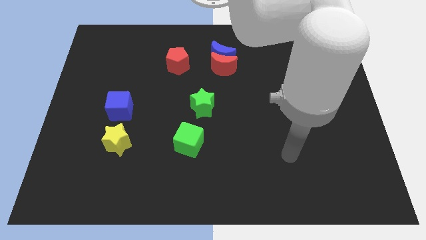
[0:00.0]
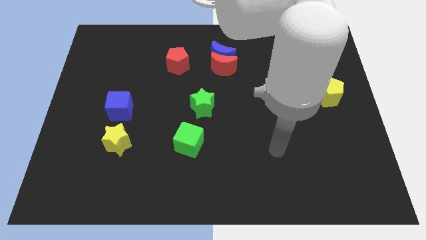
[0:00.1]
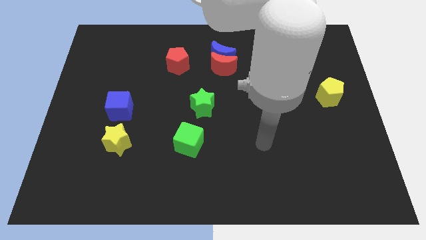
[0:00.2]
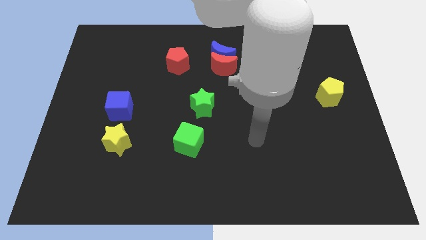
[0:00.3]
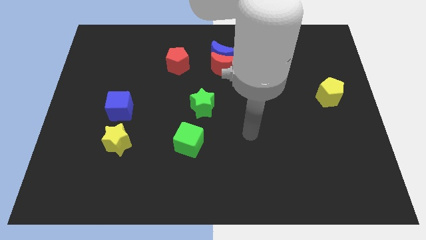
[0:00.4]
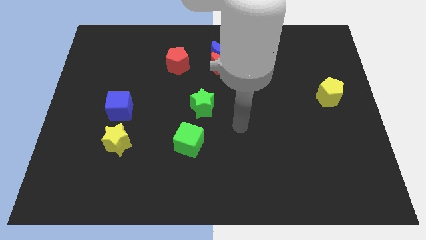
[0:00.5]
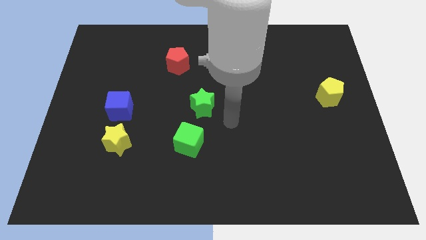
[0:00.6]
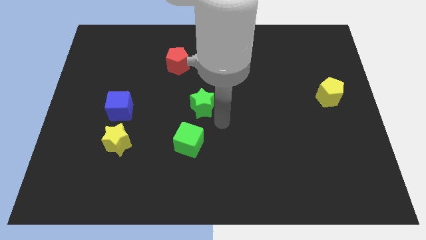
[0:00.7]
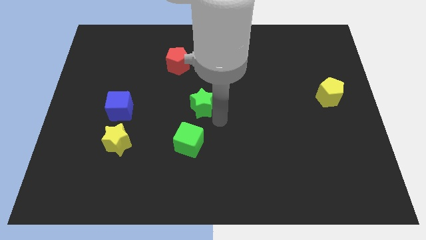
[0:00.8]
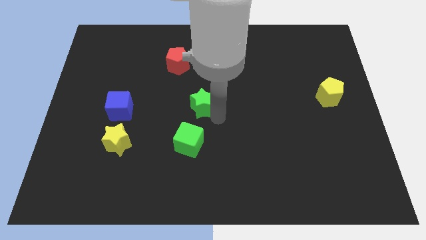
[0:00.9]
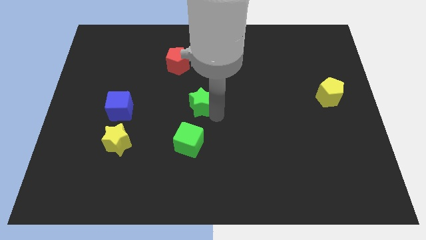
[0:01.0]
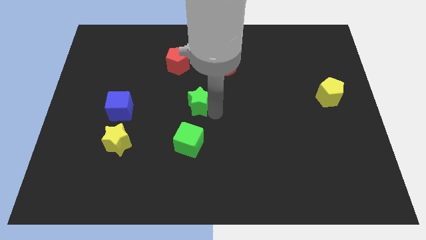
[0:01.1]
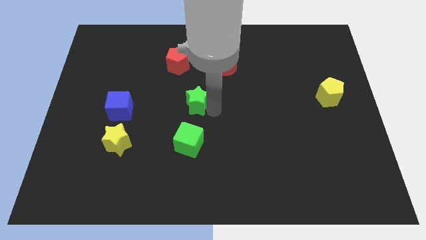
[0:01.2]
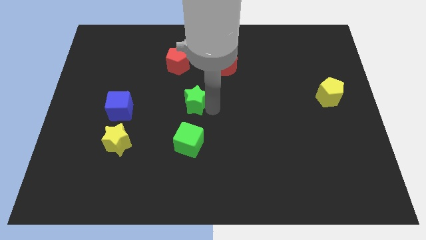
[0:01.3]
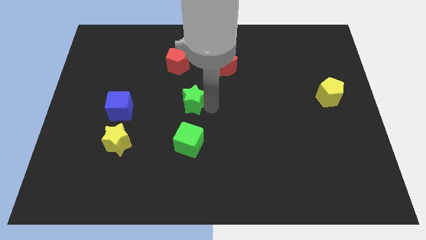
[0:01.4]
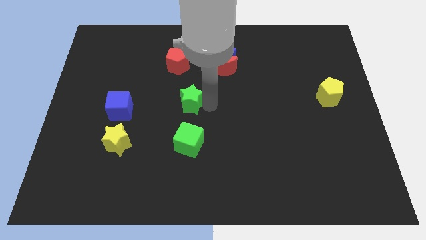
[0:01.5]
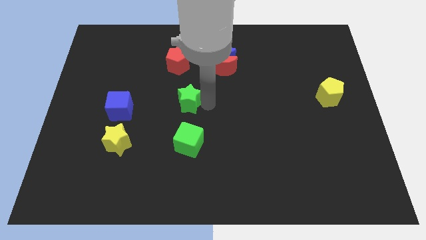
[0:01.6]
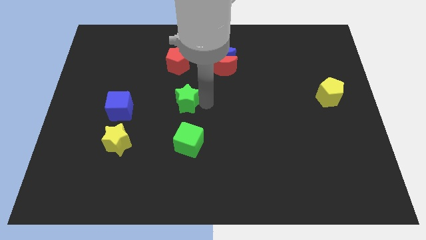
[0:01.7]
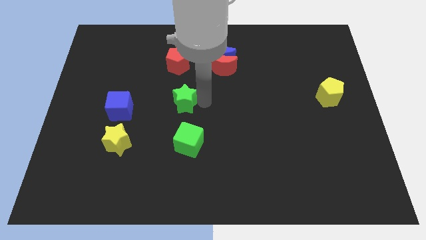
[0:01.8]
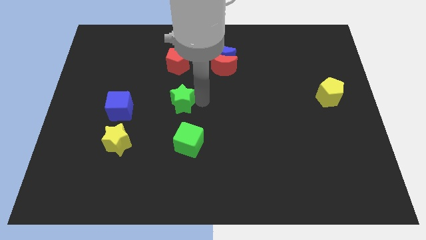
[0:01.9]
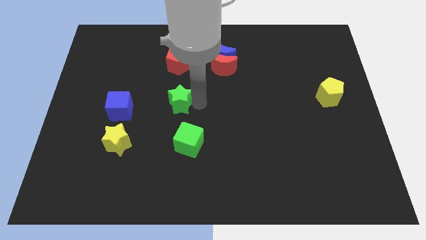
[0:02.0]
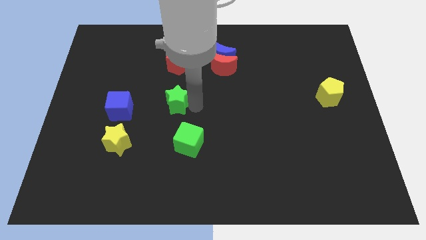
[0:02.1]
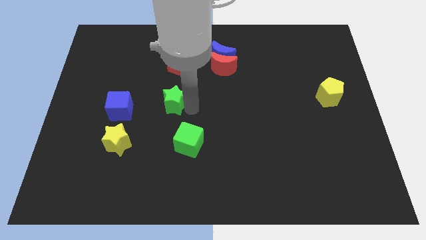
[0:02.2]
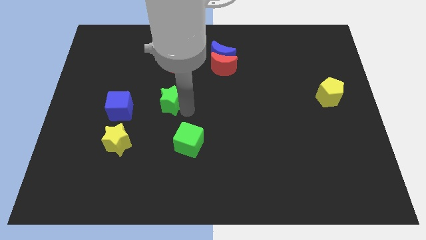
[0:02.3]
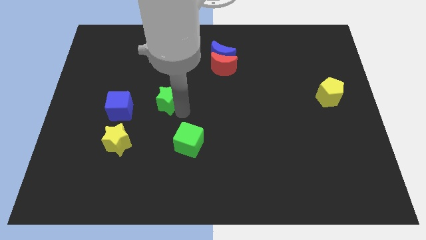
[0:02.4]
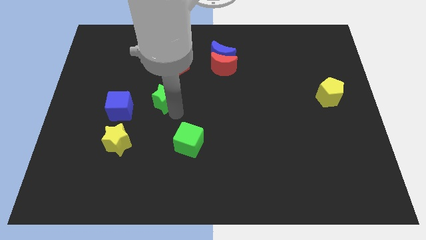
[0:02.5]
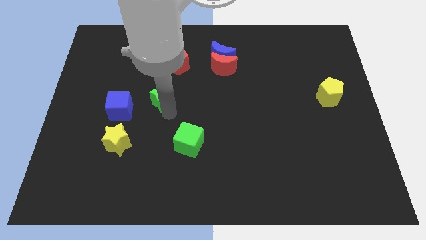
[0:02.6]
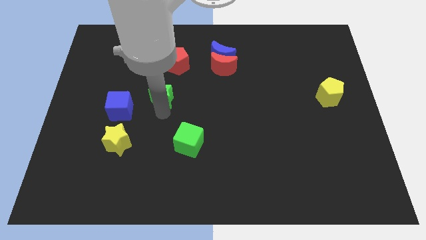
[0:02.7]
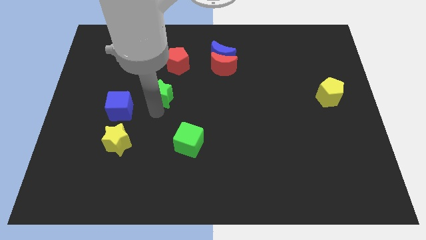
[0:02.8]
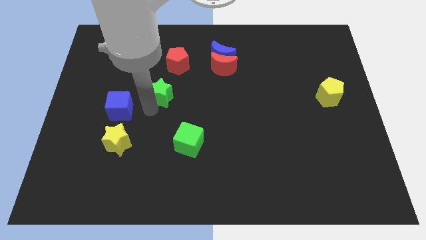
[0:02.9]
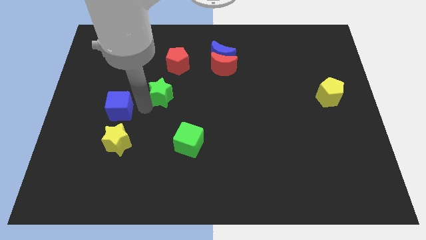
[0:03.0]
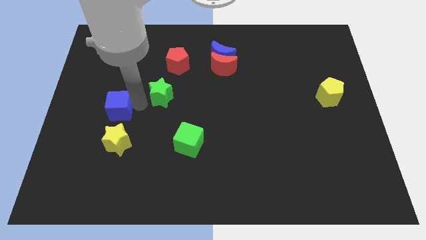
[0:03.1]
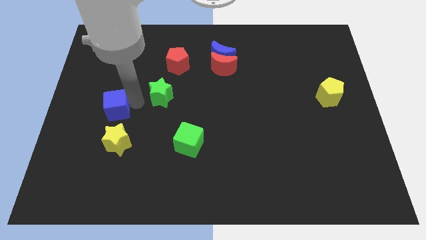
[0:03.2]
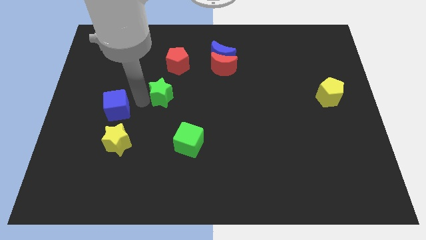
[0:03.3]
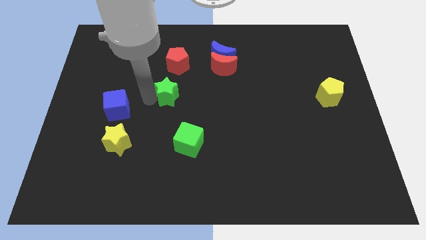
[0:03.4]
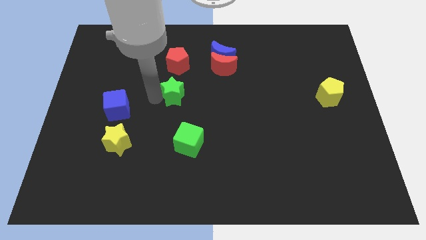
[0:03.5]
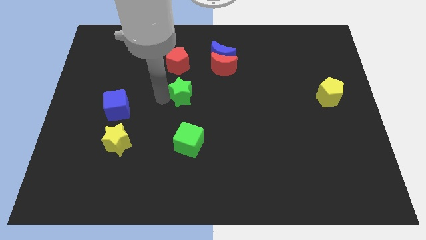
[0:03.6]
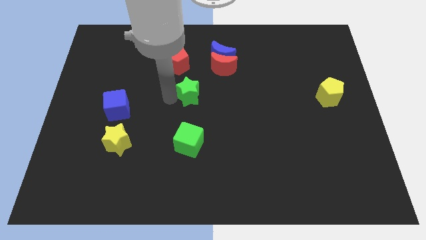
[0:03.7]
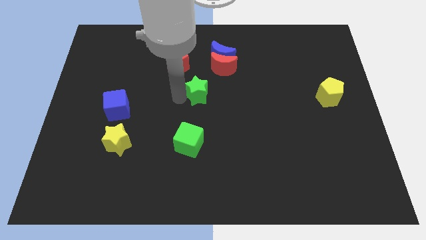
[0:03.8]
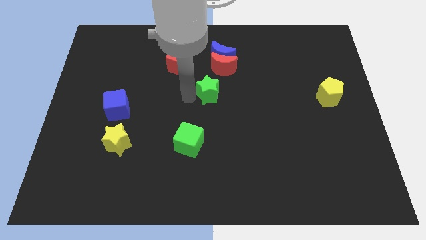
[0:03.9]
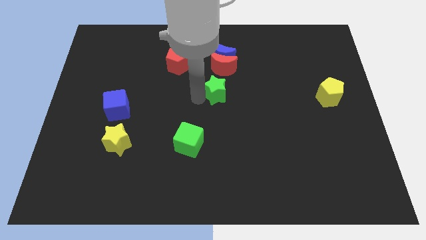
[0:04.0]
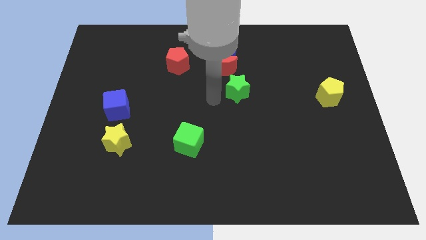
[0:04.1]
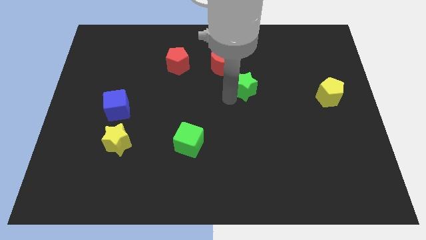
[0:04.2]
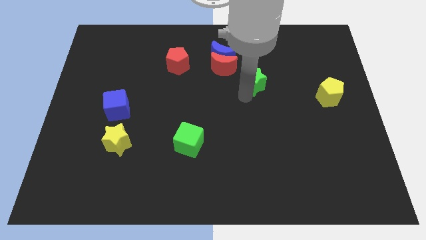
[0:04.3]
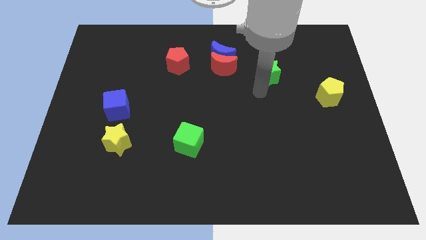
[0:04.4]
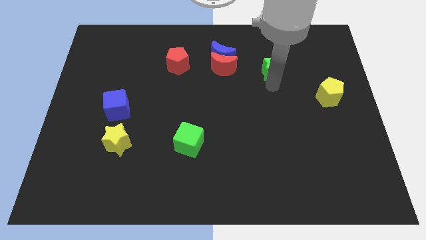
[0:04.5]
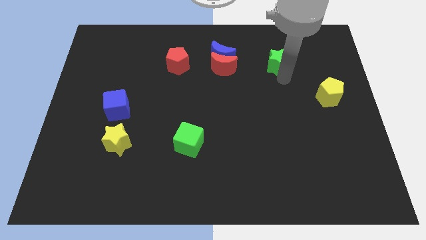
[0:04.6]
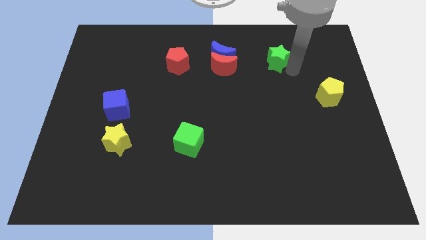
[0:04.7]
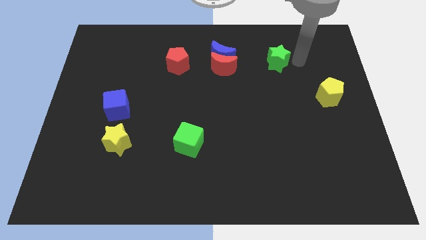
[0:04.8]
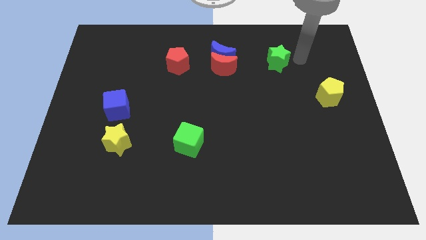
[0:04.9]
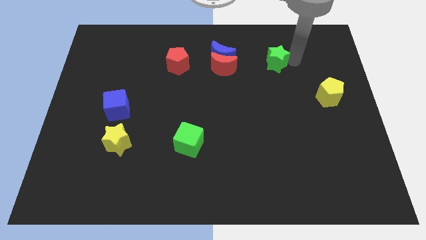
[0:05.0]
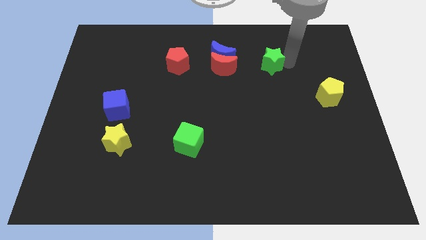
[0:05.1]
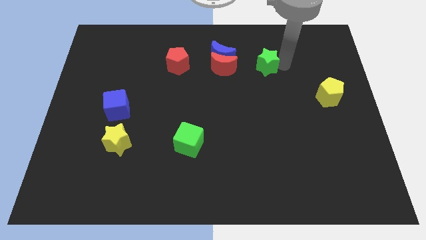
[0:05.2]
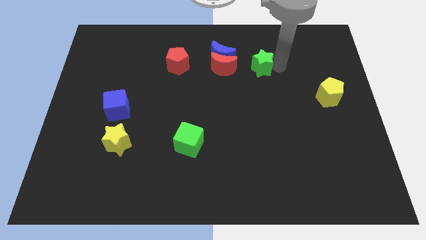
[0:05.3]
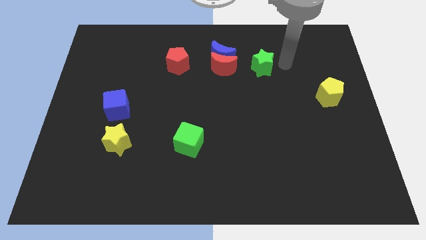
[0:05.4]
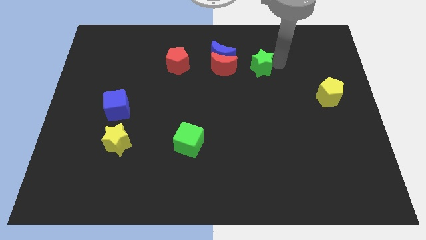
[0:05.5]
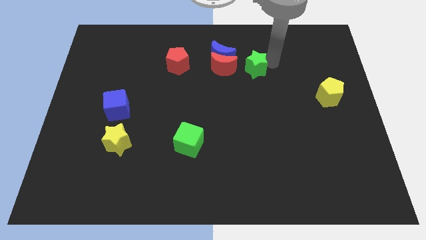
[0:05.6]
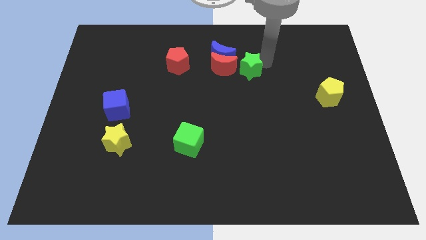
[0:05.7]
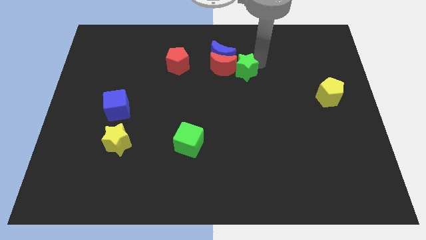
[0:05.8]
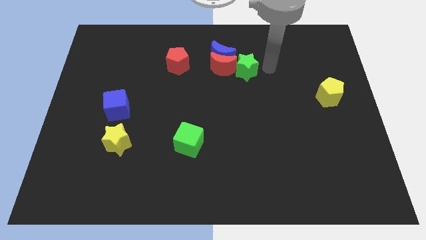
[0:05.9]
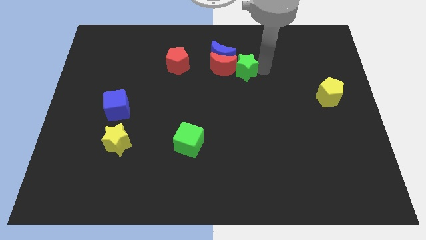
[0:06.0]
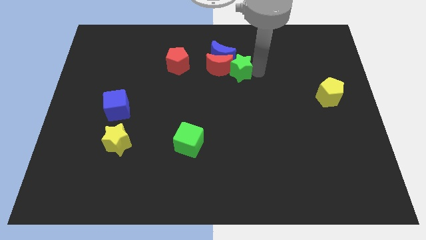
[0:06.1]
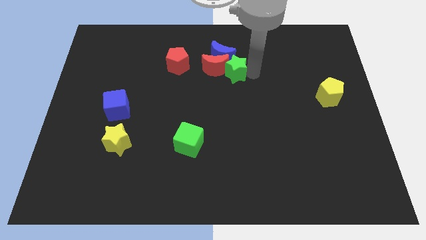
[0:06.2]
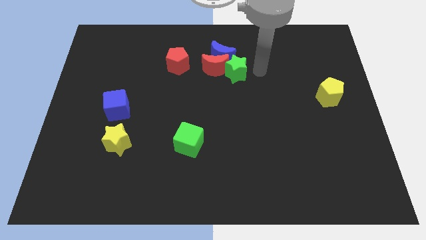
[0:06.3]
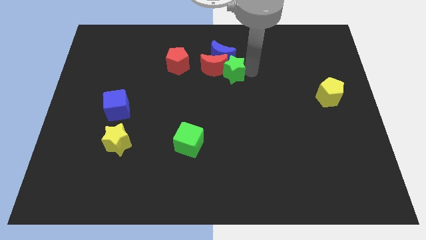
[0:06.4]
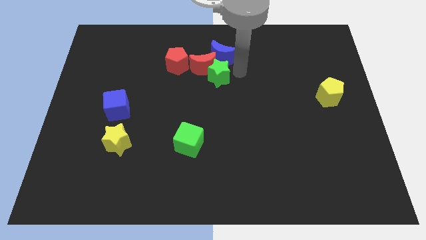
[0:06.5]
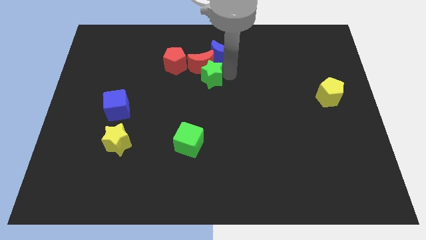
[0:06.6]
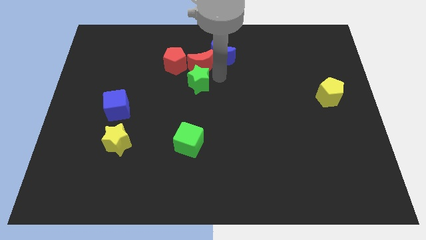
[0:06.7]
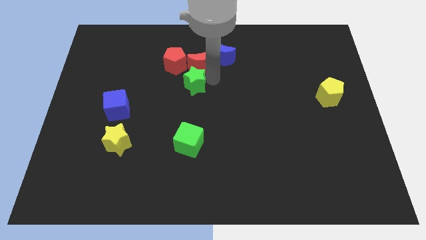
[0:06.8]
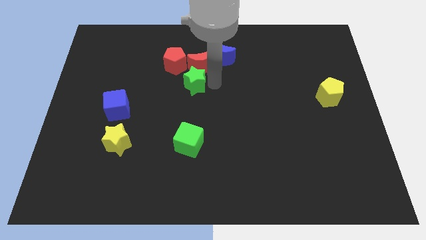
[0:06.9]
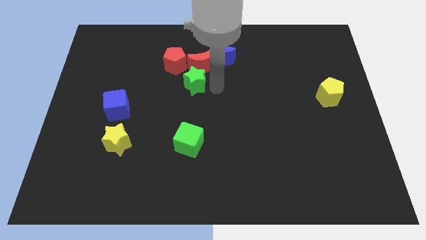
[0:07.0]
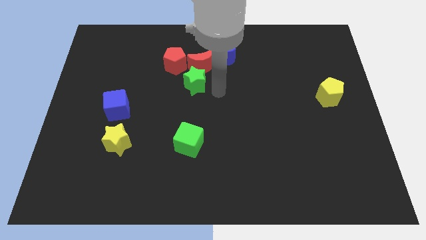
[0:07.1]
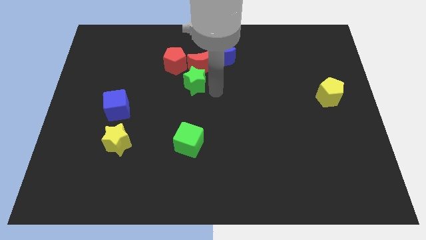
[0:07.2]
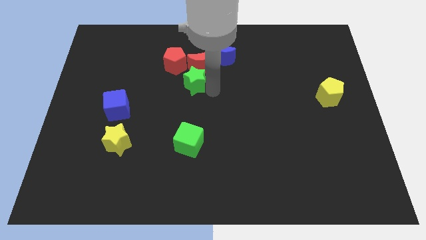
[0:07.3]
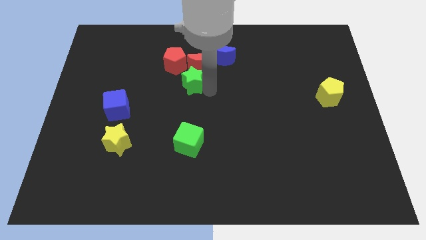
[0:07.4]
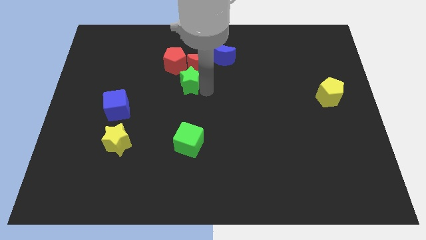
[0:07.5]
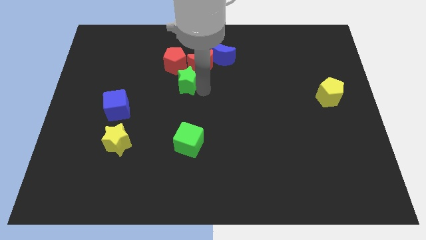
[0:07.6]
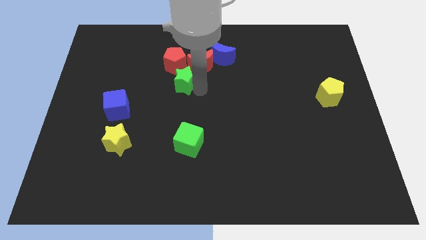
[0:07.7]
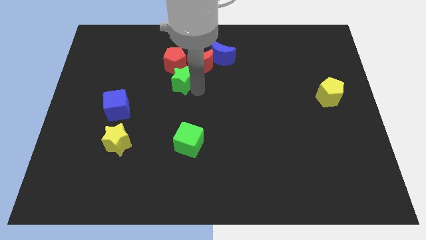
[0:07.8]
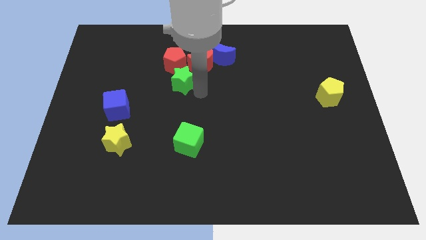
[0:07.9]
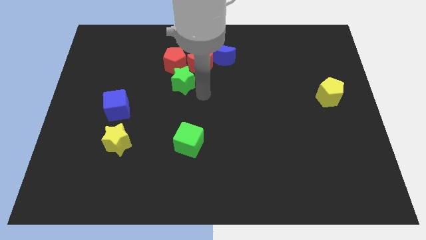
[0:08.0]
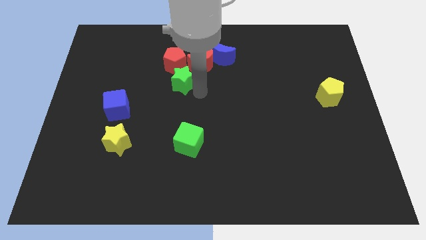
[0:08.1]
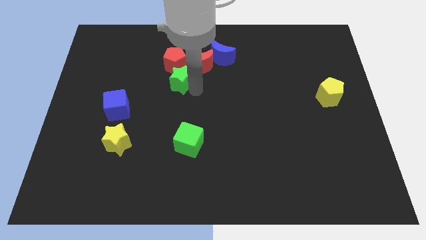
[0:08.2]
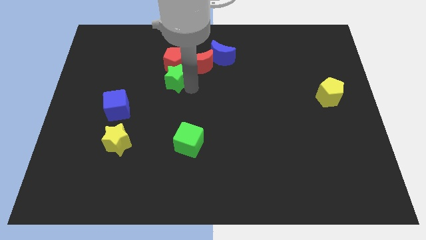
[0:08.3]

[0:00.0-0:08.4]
move the green star left of the red moon
